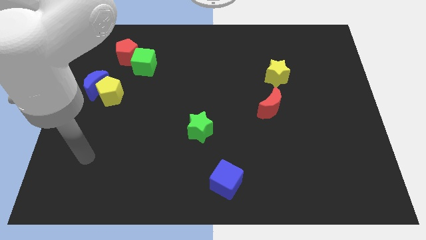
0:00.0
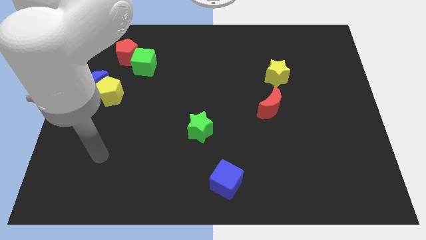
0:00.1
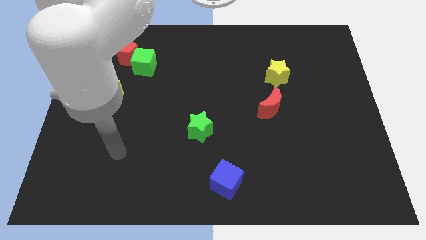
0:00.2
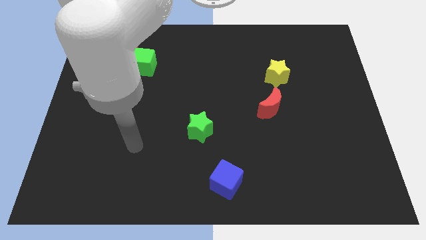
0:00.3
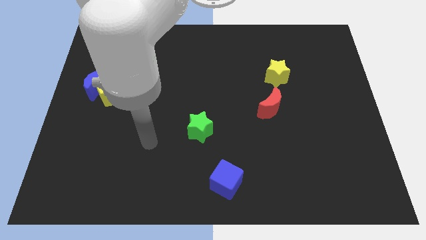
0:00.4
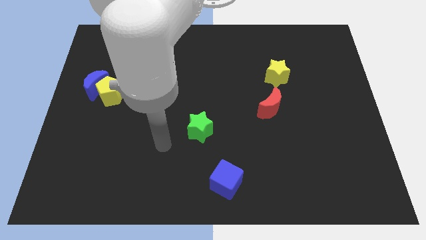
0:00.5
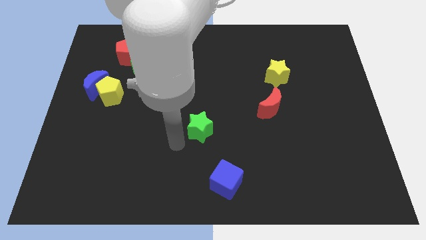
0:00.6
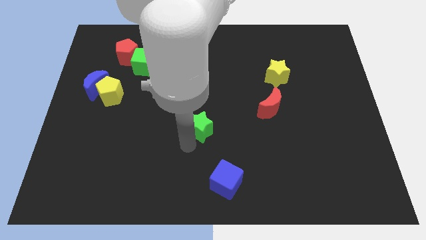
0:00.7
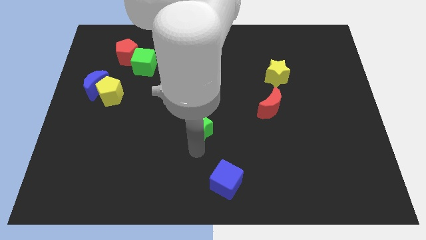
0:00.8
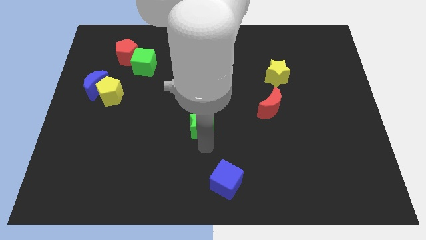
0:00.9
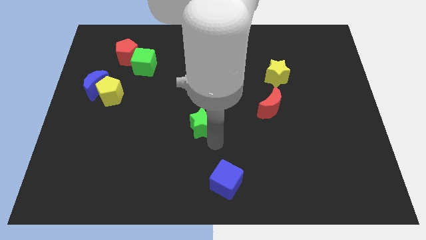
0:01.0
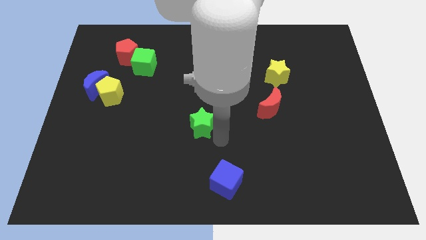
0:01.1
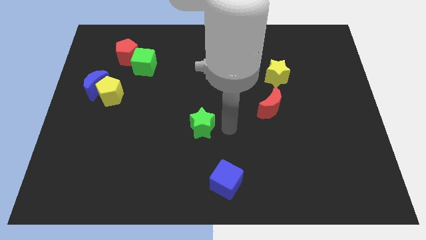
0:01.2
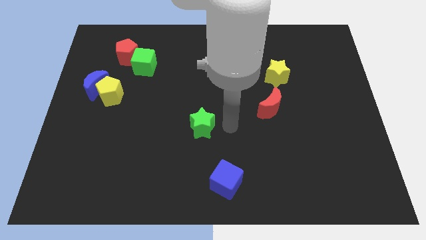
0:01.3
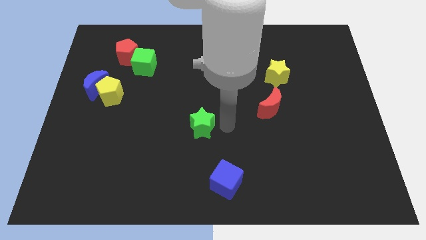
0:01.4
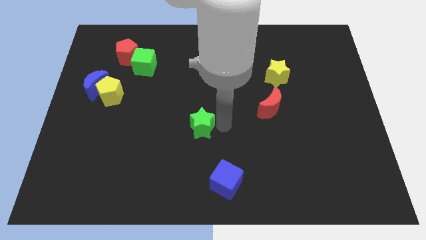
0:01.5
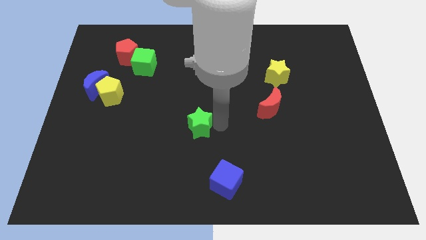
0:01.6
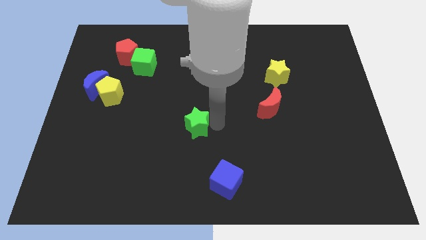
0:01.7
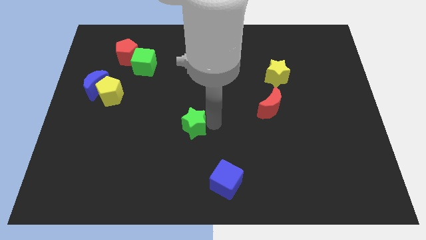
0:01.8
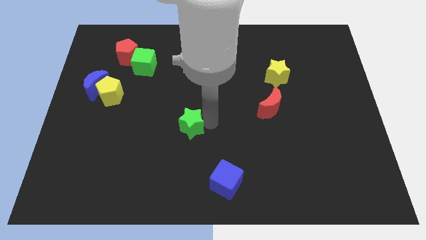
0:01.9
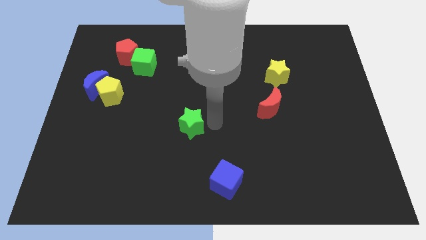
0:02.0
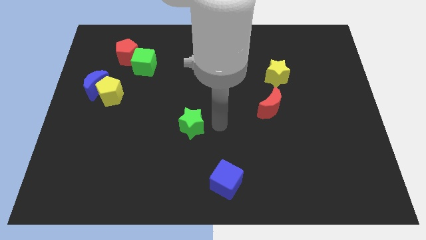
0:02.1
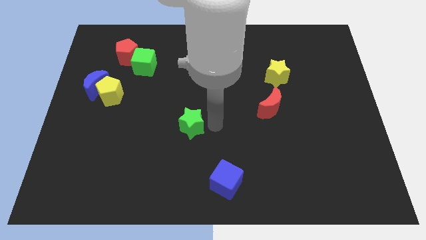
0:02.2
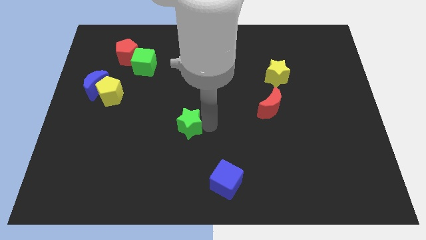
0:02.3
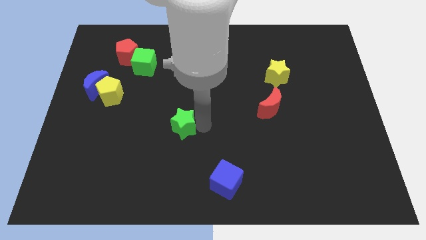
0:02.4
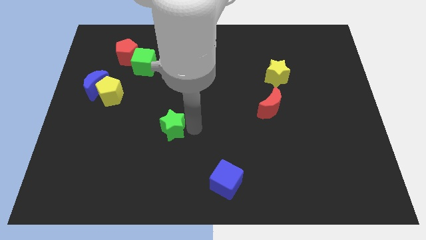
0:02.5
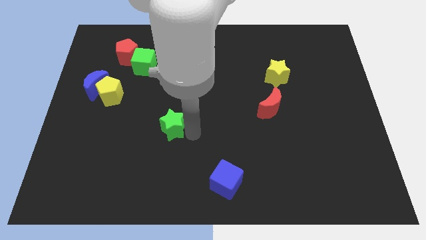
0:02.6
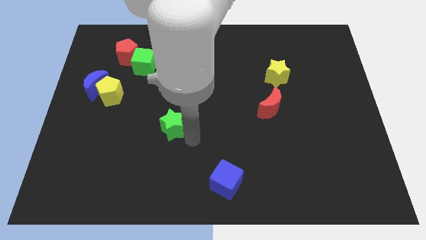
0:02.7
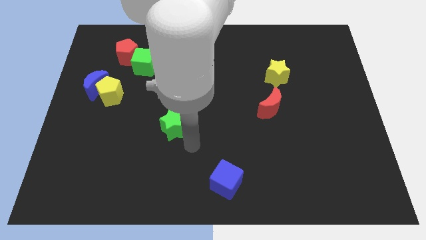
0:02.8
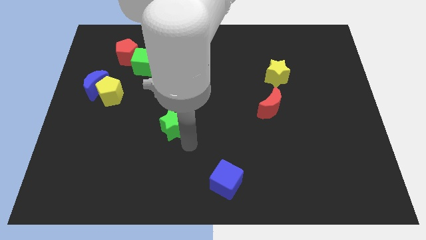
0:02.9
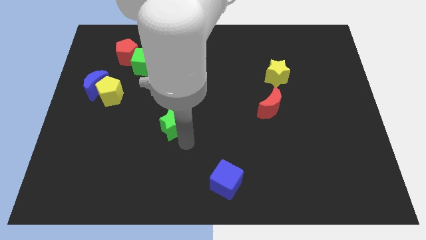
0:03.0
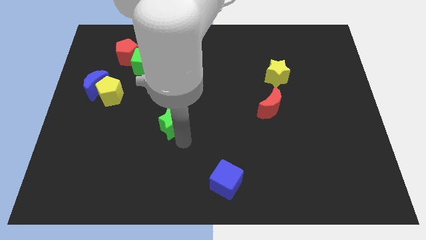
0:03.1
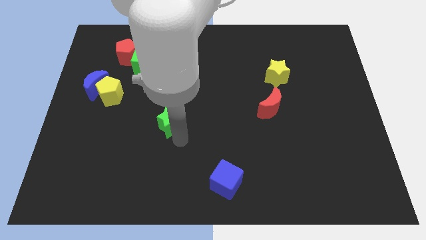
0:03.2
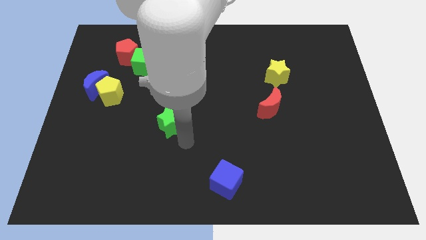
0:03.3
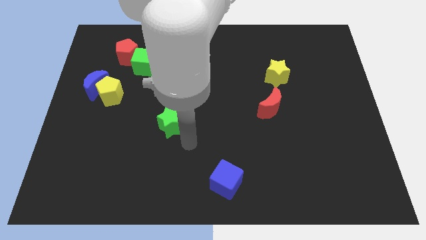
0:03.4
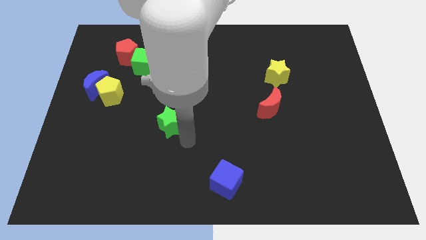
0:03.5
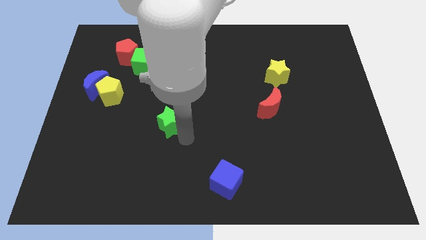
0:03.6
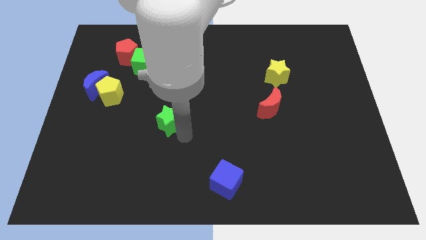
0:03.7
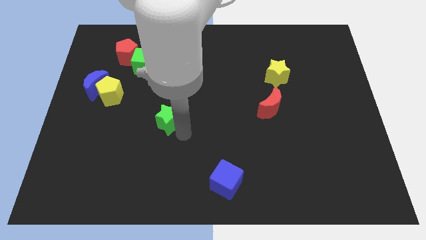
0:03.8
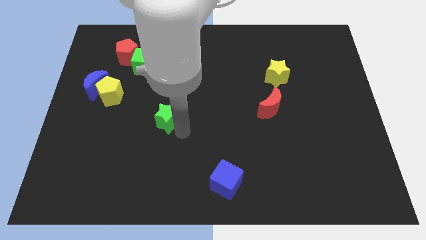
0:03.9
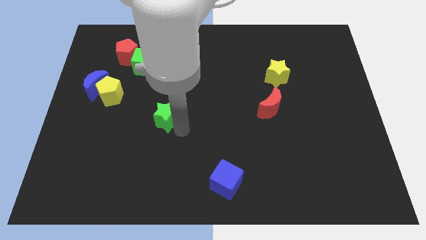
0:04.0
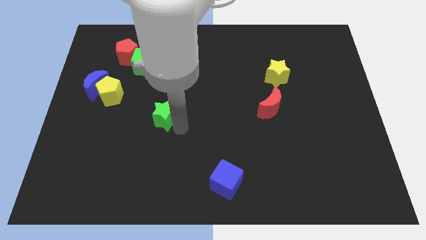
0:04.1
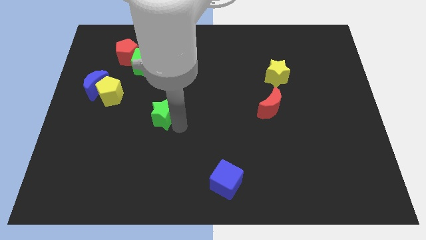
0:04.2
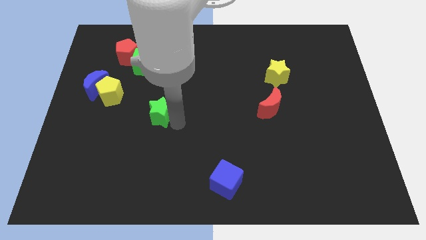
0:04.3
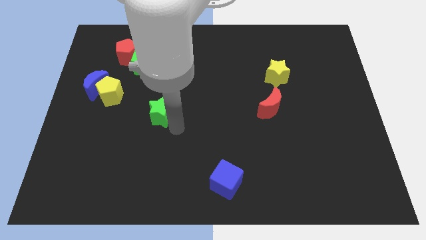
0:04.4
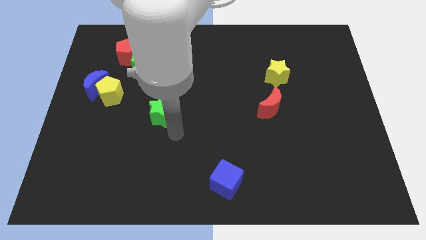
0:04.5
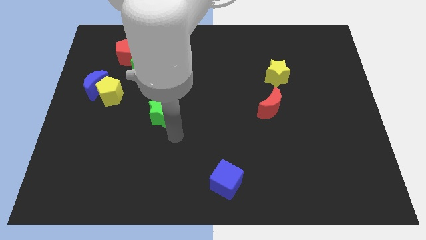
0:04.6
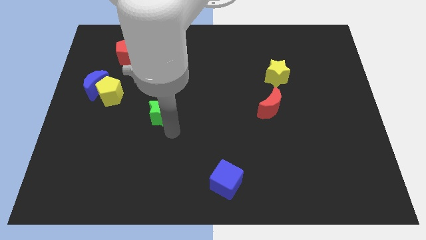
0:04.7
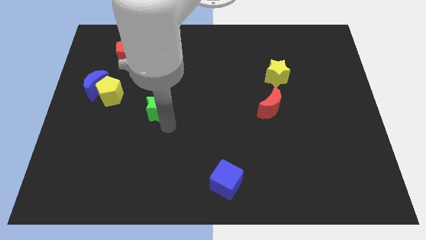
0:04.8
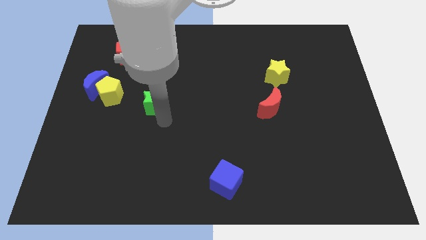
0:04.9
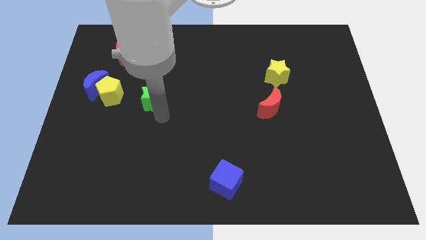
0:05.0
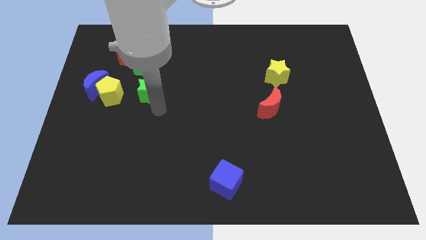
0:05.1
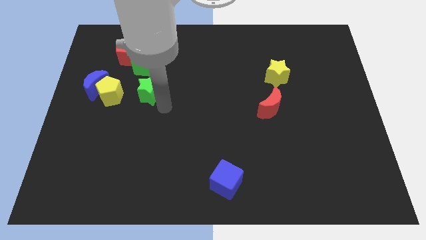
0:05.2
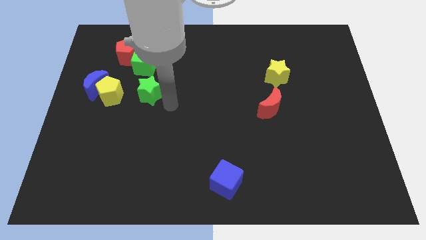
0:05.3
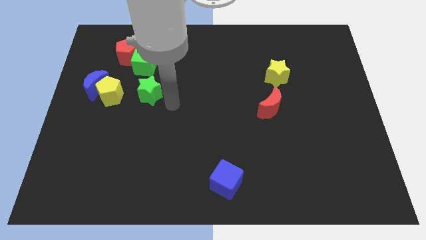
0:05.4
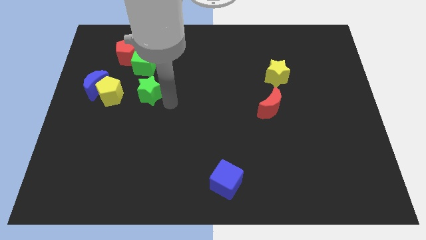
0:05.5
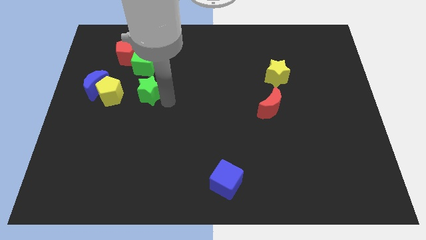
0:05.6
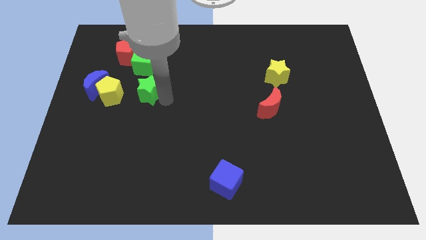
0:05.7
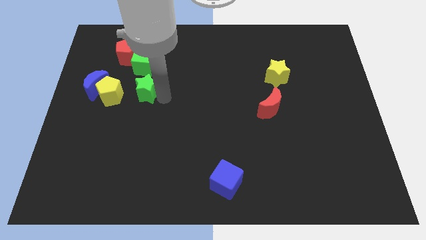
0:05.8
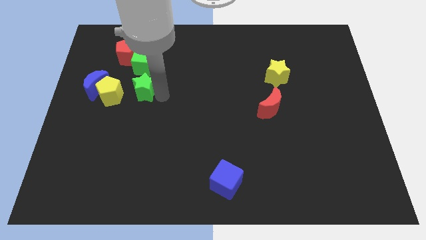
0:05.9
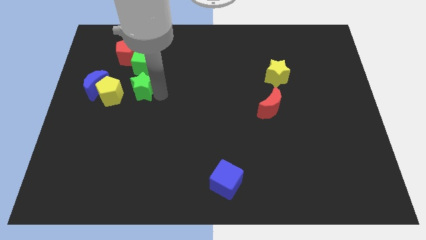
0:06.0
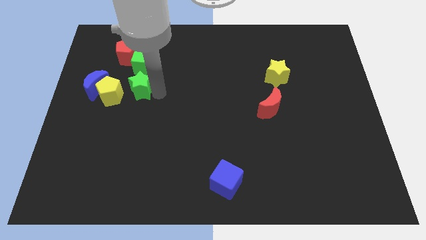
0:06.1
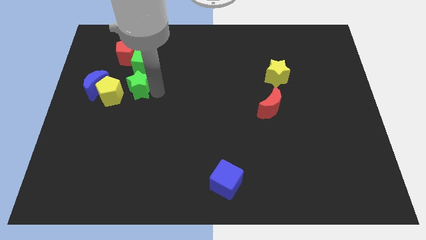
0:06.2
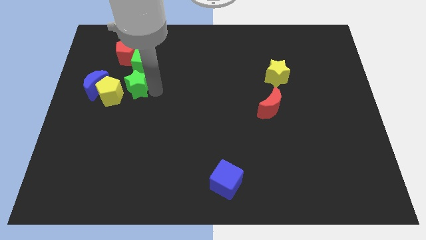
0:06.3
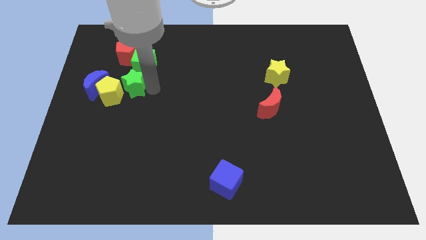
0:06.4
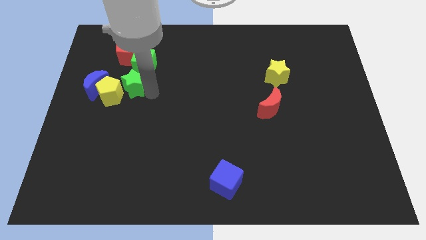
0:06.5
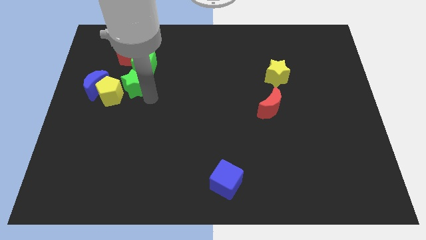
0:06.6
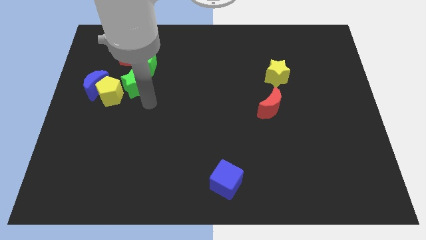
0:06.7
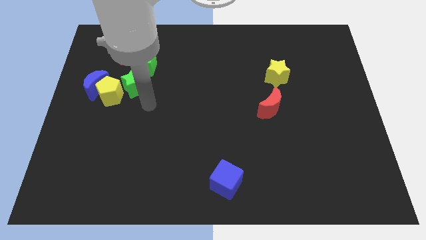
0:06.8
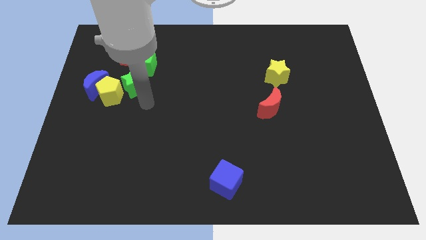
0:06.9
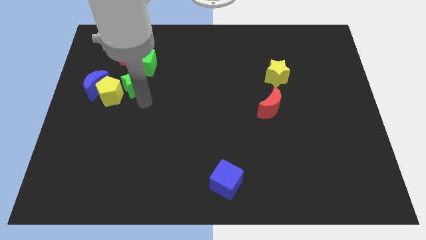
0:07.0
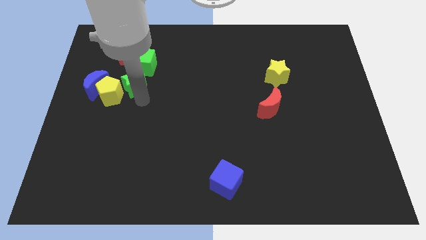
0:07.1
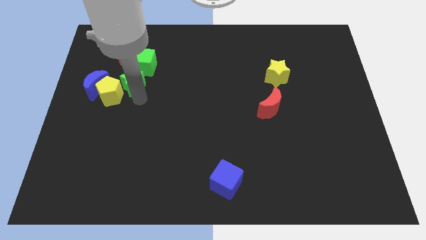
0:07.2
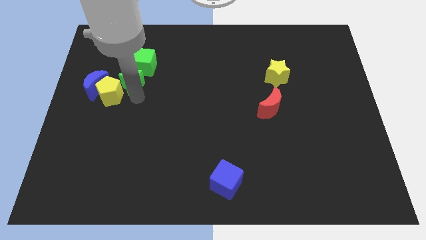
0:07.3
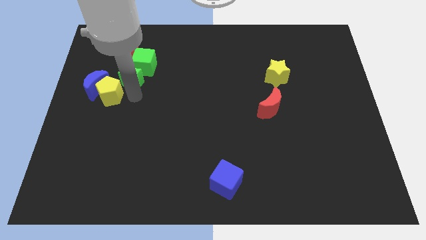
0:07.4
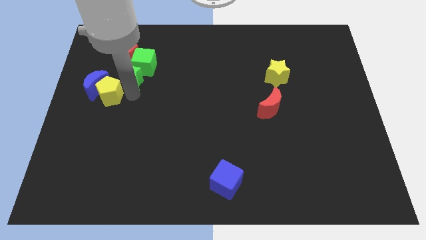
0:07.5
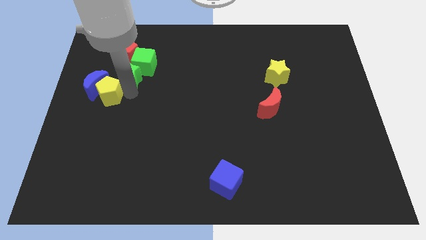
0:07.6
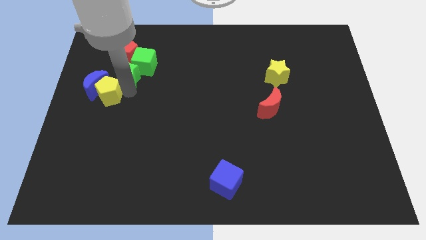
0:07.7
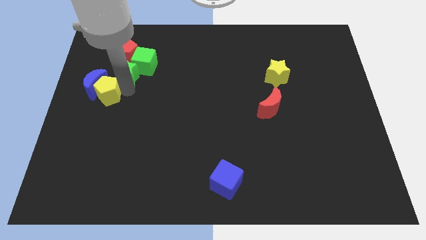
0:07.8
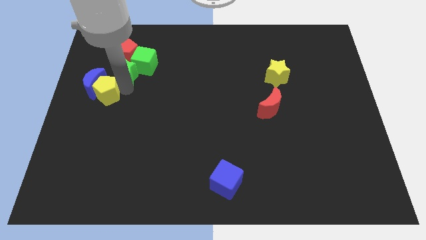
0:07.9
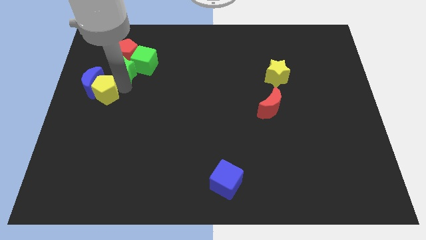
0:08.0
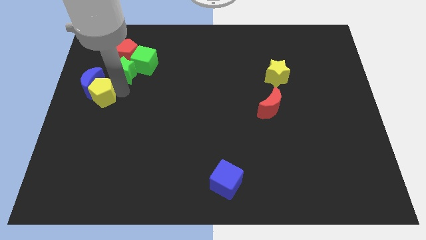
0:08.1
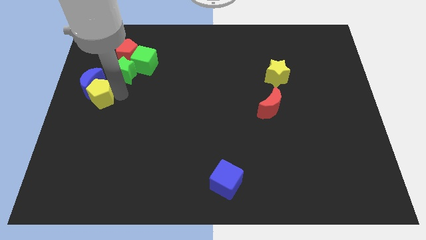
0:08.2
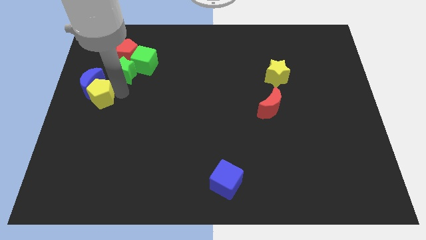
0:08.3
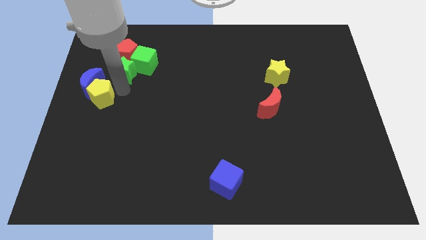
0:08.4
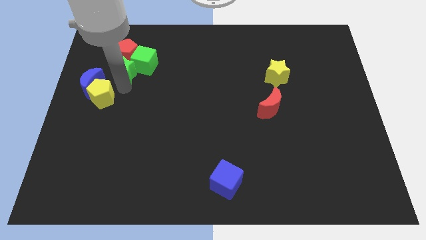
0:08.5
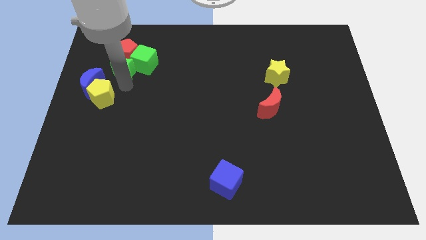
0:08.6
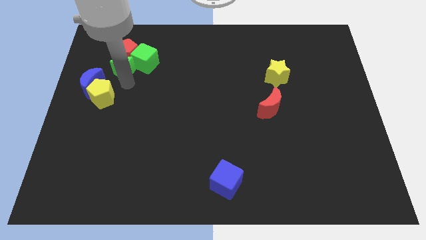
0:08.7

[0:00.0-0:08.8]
push the green star towards the red pentagon
